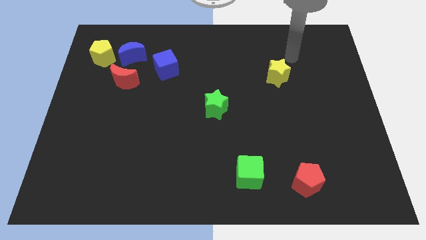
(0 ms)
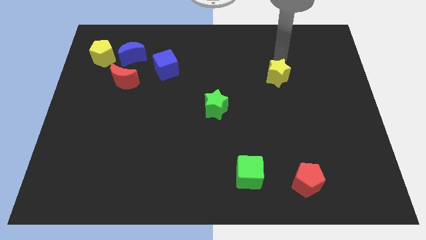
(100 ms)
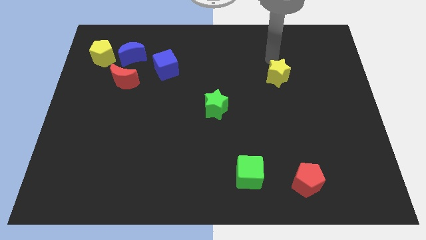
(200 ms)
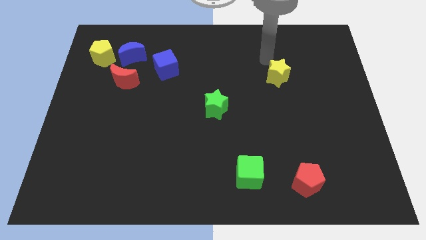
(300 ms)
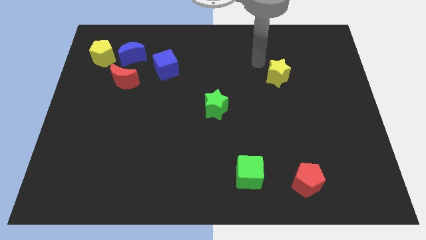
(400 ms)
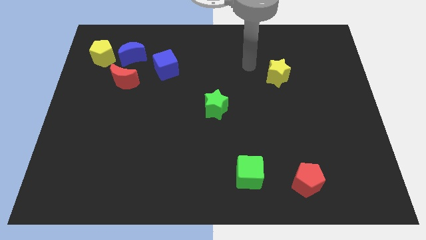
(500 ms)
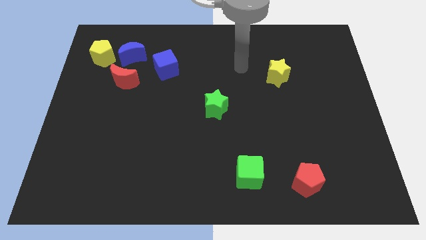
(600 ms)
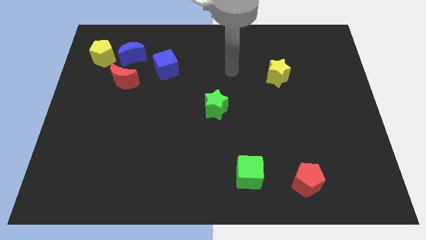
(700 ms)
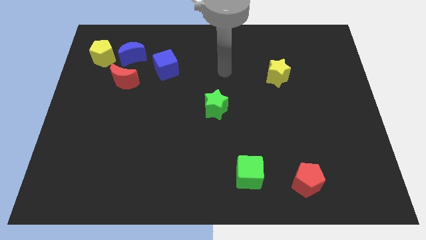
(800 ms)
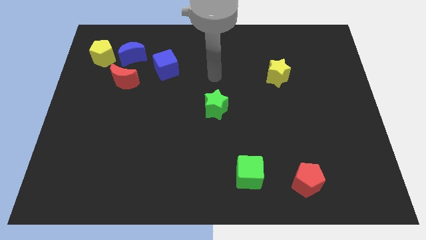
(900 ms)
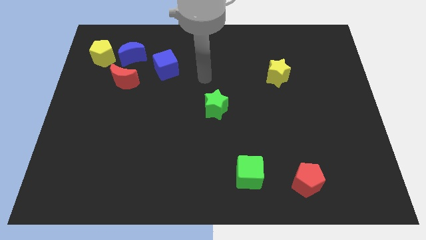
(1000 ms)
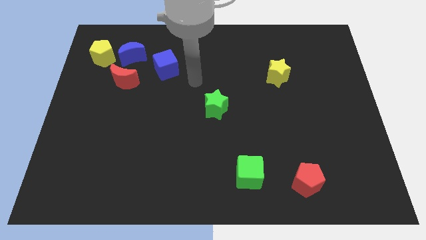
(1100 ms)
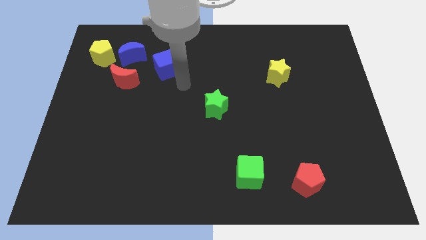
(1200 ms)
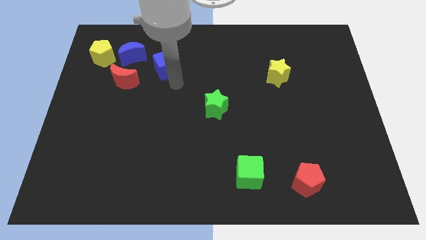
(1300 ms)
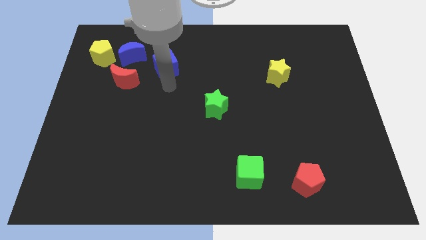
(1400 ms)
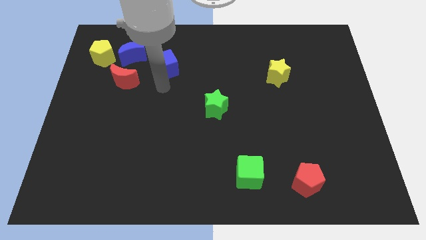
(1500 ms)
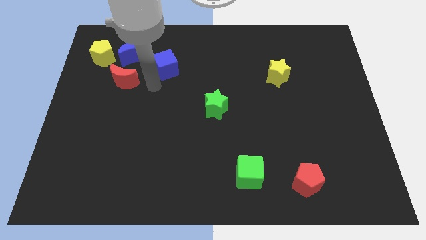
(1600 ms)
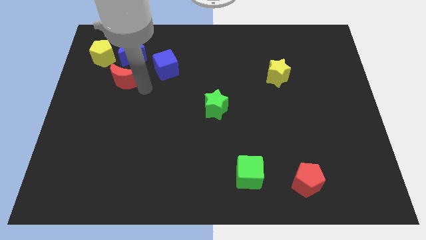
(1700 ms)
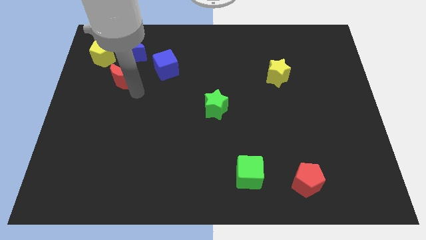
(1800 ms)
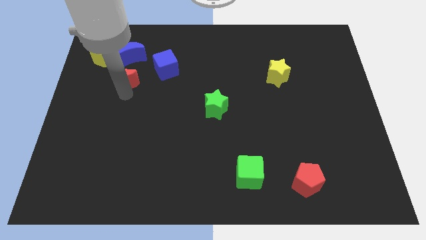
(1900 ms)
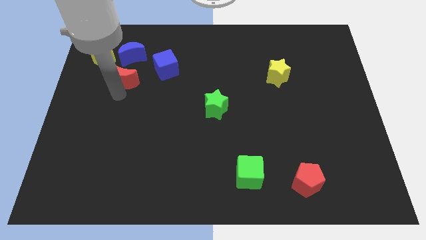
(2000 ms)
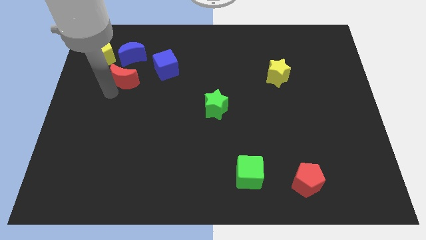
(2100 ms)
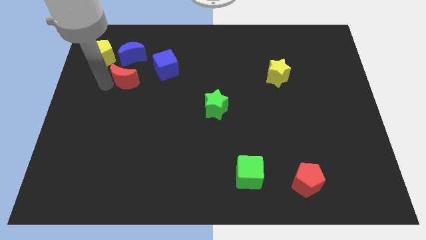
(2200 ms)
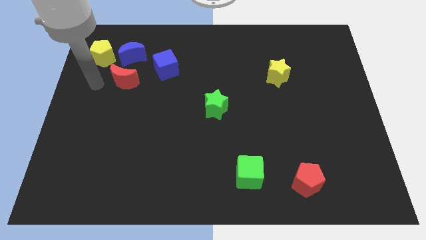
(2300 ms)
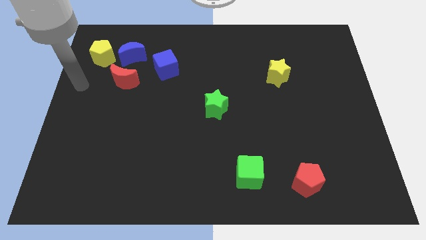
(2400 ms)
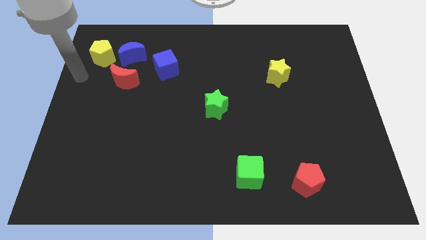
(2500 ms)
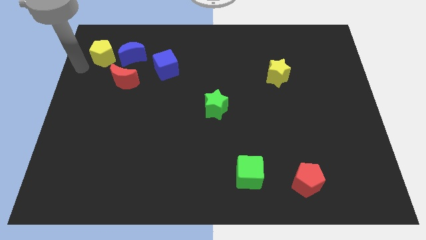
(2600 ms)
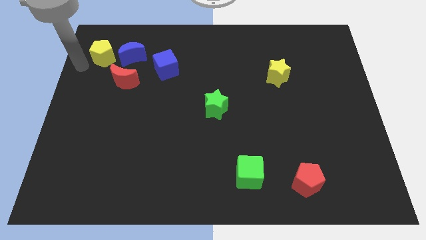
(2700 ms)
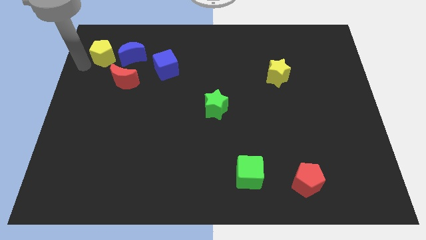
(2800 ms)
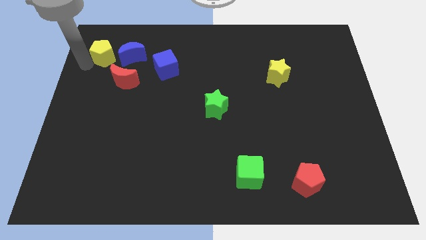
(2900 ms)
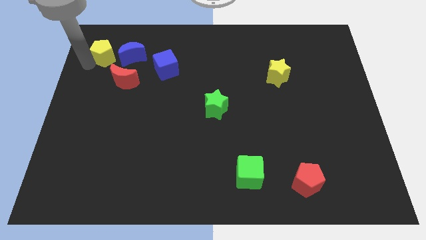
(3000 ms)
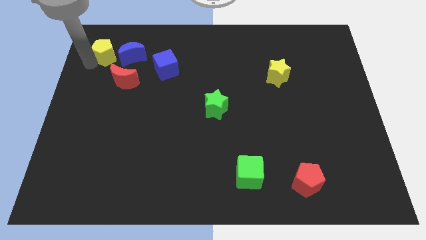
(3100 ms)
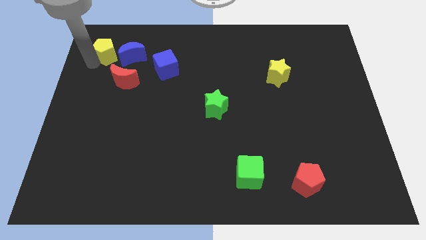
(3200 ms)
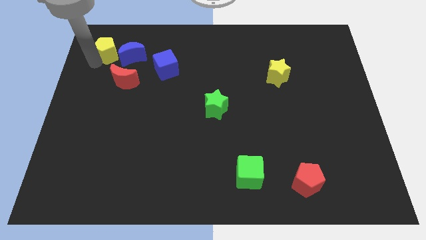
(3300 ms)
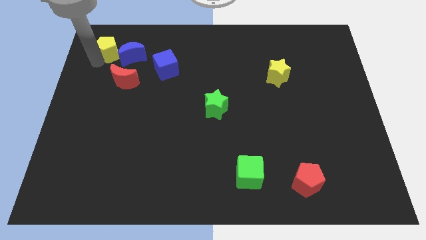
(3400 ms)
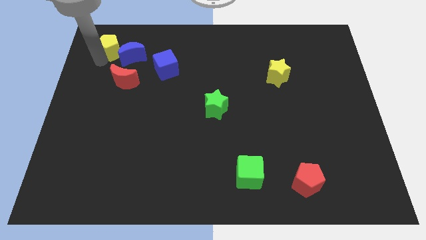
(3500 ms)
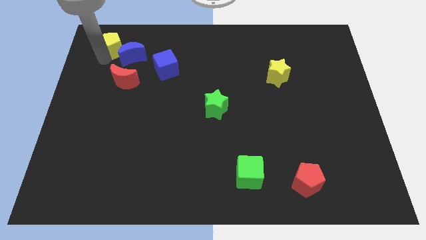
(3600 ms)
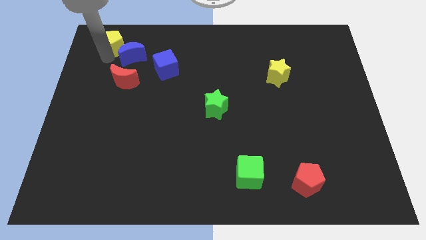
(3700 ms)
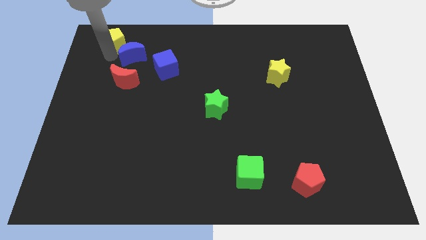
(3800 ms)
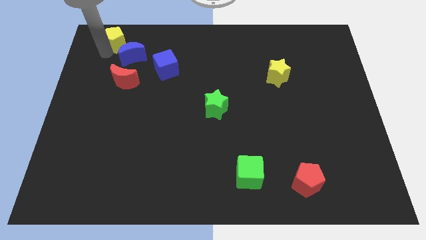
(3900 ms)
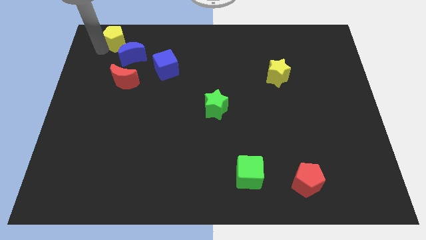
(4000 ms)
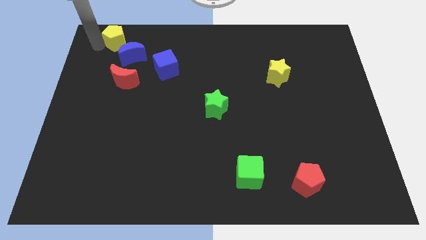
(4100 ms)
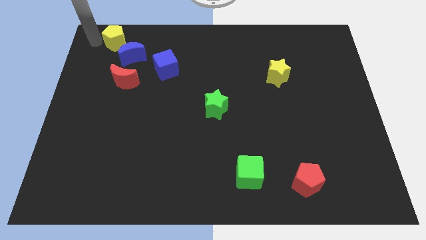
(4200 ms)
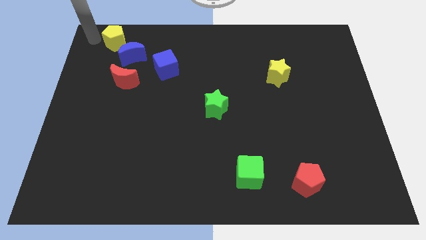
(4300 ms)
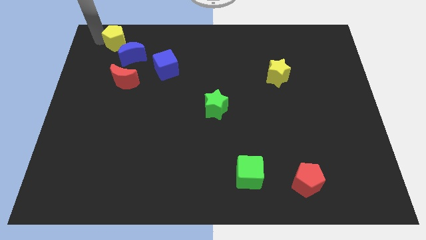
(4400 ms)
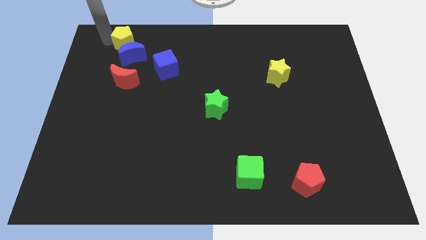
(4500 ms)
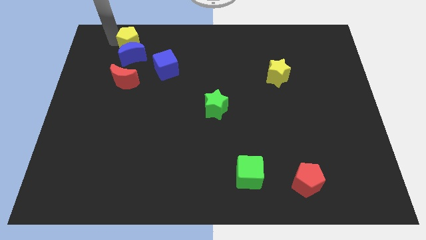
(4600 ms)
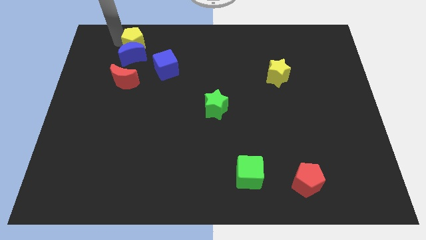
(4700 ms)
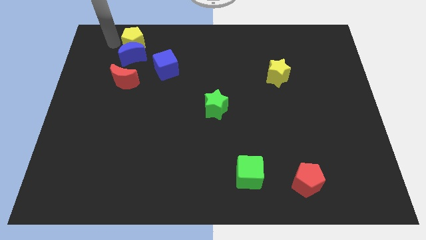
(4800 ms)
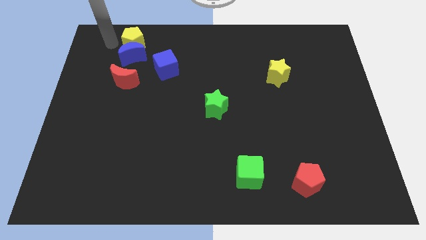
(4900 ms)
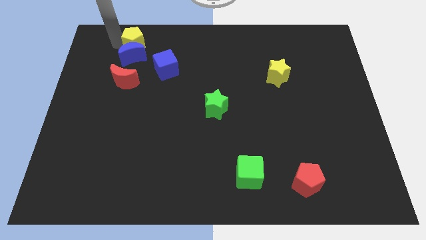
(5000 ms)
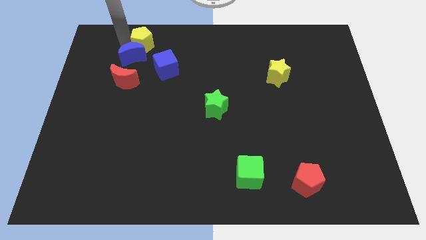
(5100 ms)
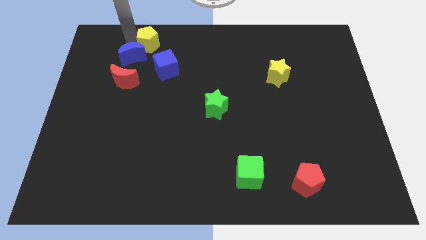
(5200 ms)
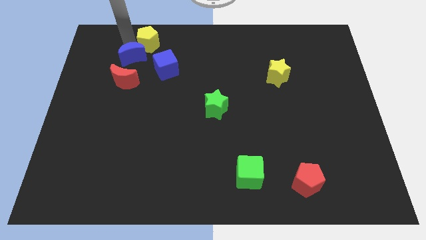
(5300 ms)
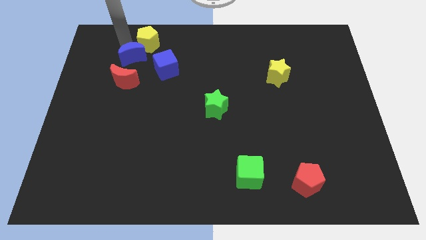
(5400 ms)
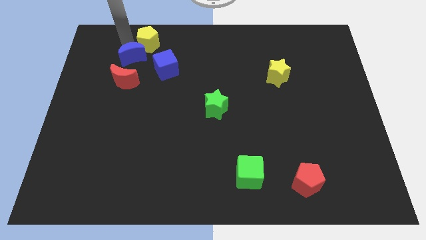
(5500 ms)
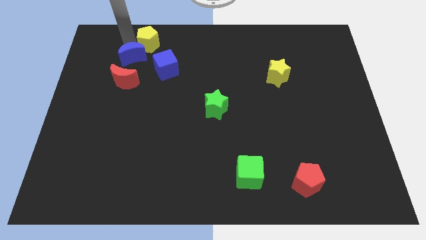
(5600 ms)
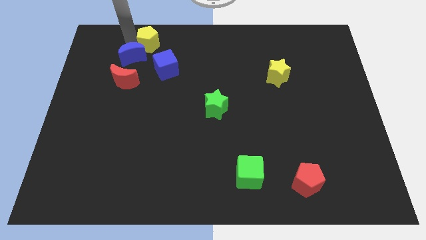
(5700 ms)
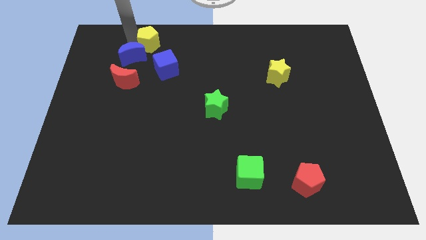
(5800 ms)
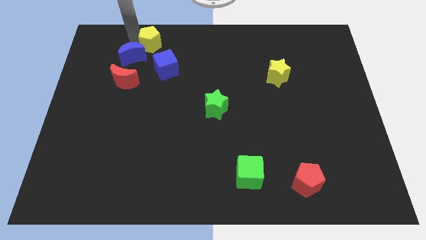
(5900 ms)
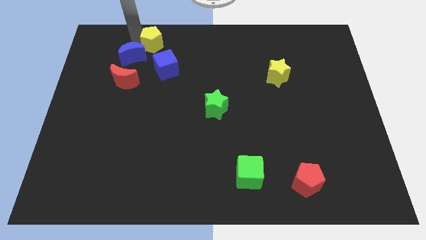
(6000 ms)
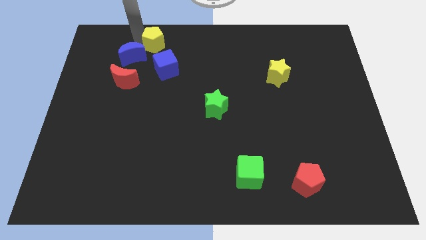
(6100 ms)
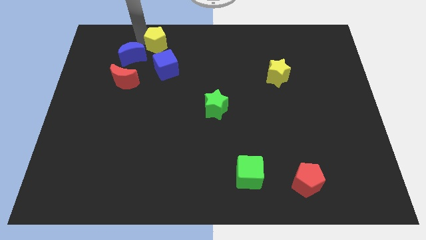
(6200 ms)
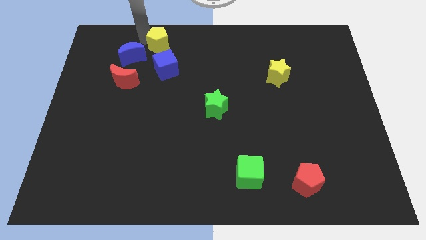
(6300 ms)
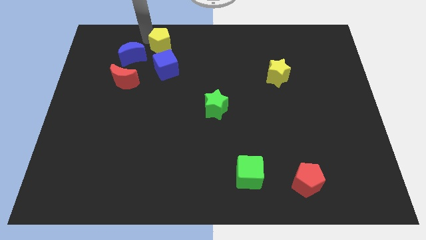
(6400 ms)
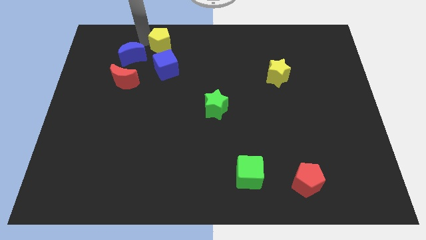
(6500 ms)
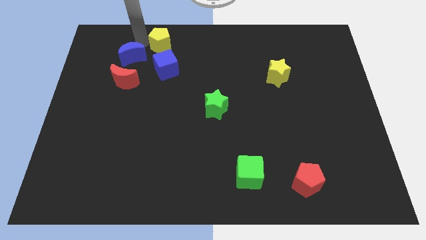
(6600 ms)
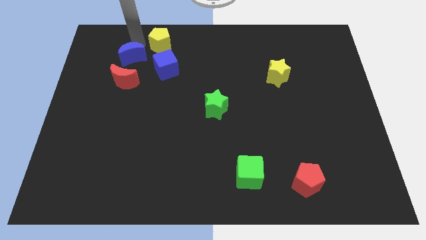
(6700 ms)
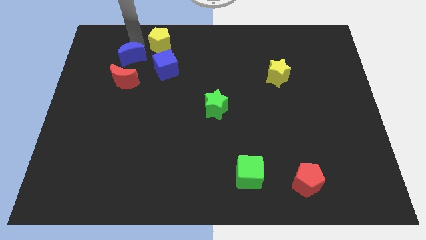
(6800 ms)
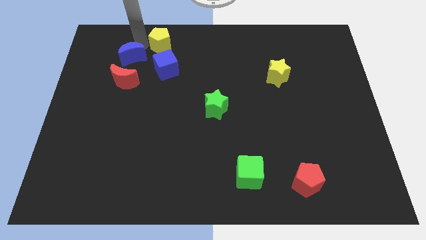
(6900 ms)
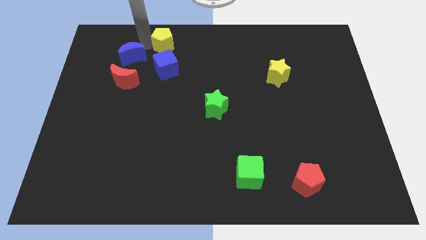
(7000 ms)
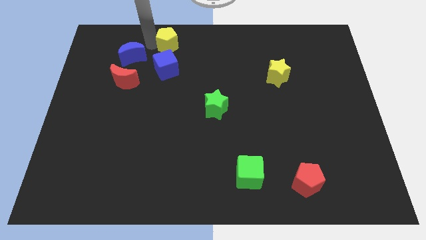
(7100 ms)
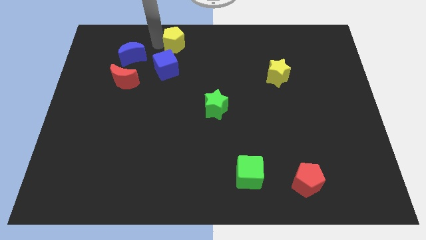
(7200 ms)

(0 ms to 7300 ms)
put the yellow pentagon to the top side
